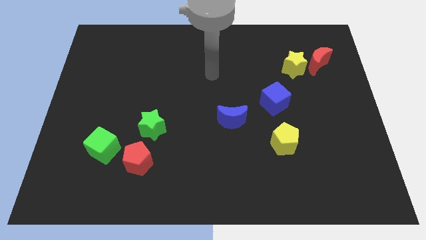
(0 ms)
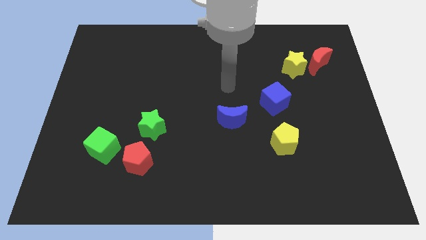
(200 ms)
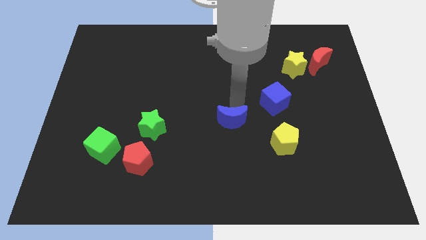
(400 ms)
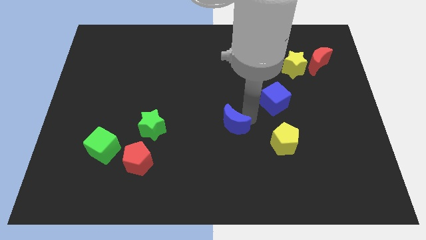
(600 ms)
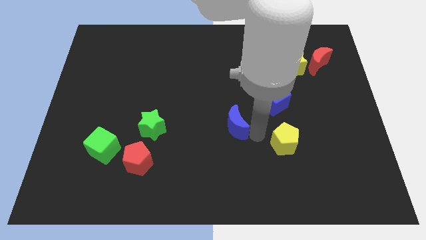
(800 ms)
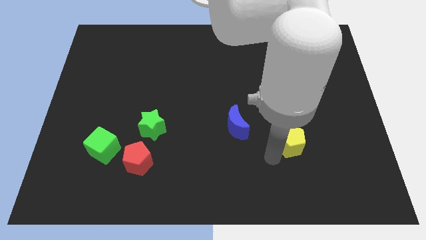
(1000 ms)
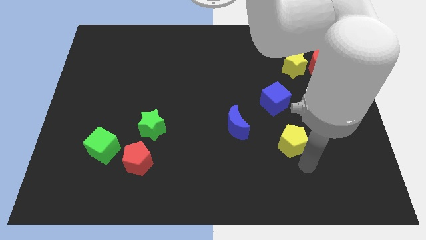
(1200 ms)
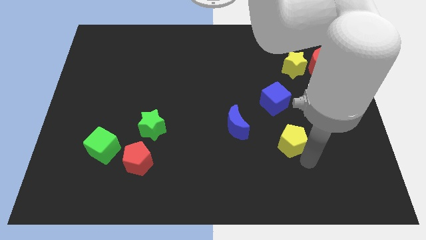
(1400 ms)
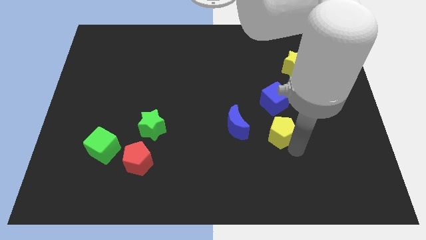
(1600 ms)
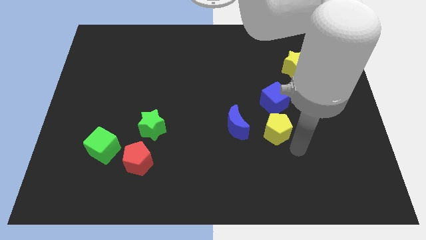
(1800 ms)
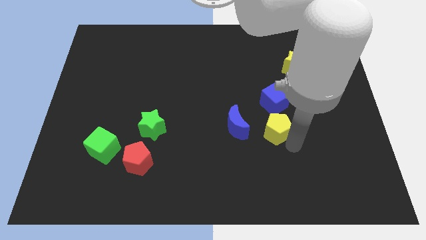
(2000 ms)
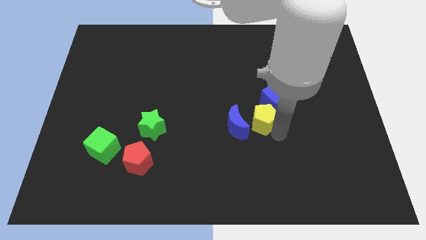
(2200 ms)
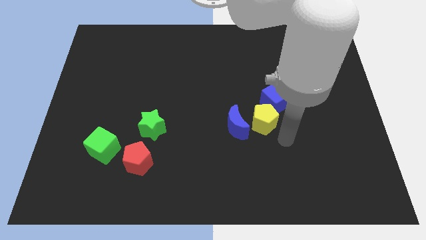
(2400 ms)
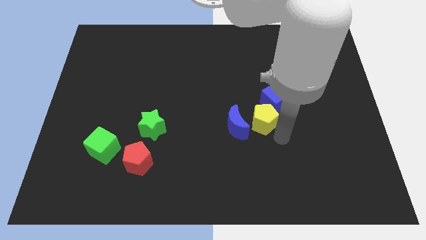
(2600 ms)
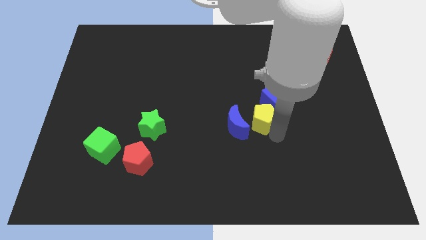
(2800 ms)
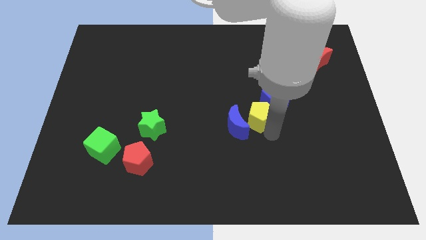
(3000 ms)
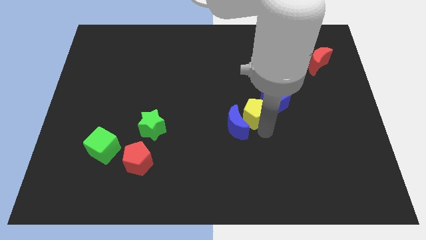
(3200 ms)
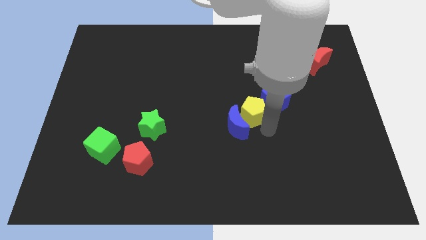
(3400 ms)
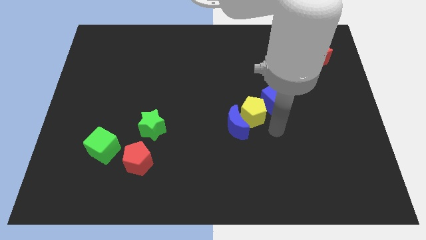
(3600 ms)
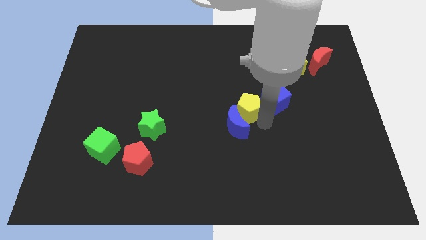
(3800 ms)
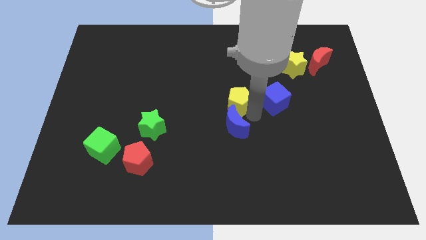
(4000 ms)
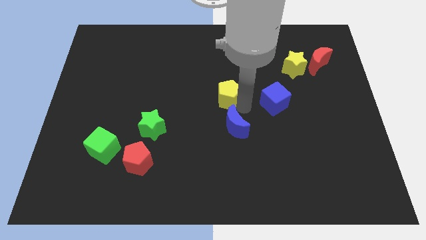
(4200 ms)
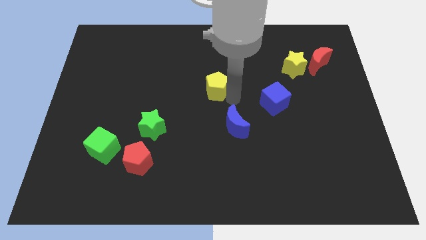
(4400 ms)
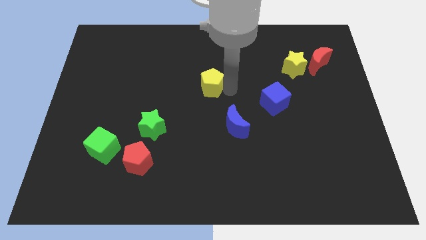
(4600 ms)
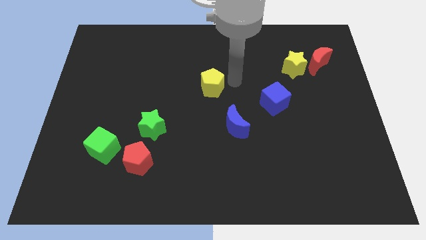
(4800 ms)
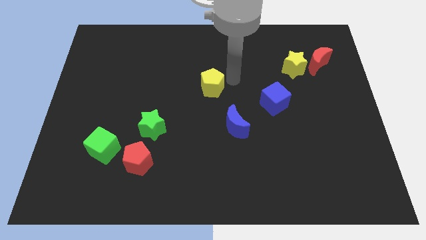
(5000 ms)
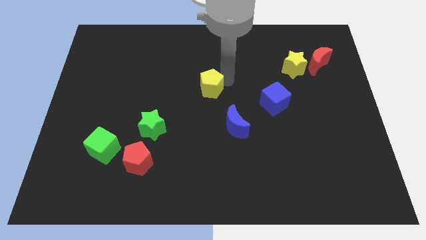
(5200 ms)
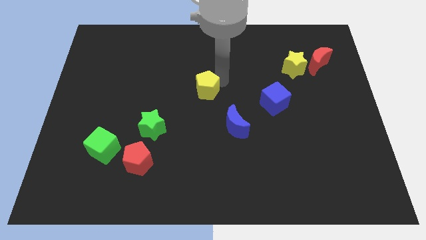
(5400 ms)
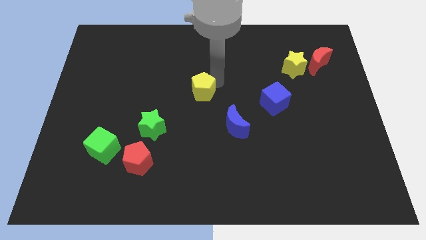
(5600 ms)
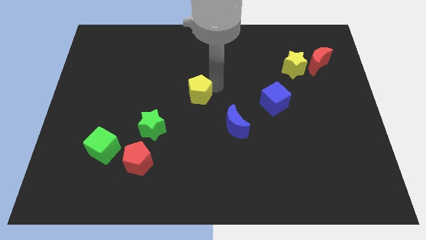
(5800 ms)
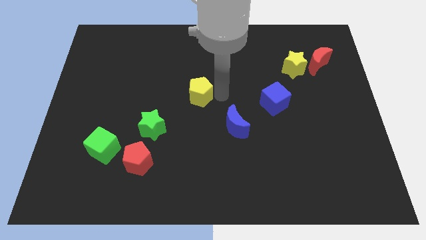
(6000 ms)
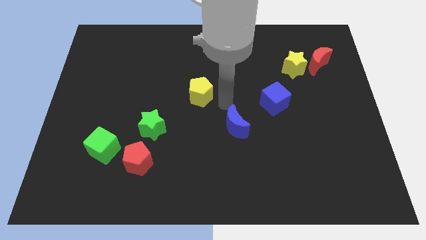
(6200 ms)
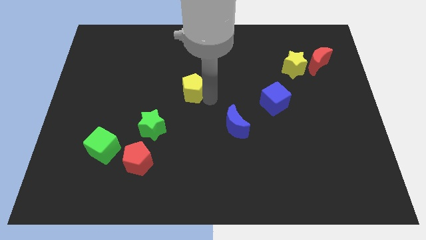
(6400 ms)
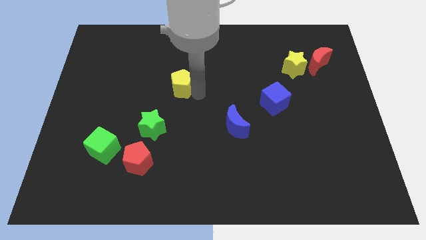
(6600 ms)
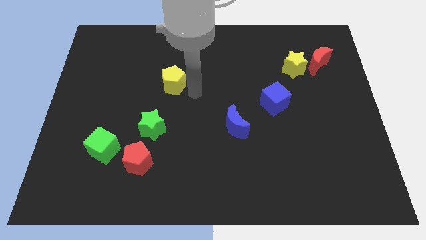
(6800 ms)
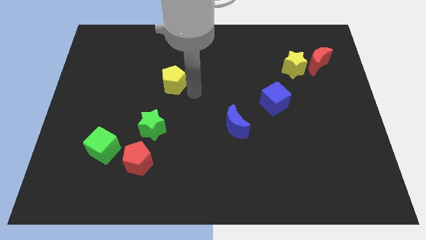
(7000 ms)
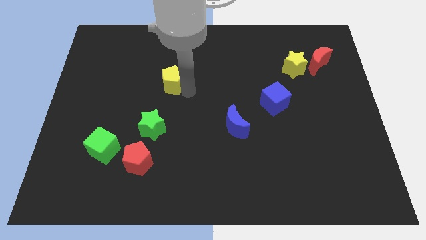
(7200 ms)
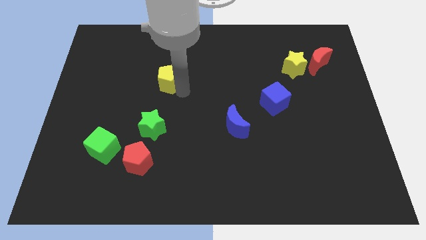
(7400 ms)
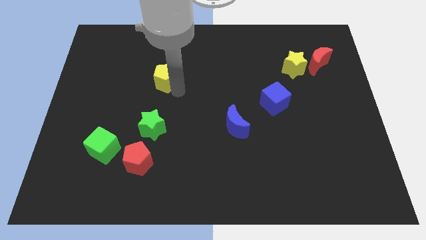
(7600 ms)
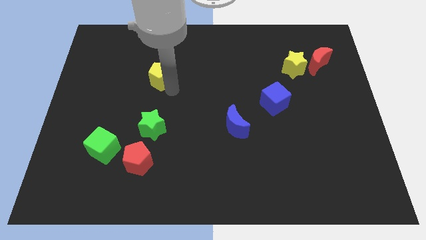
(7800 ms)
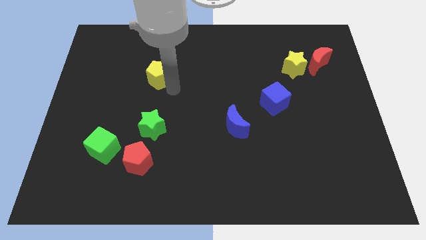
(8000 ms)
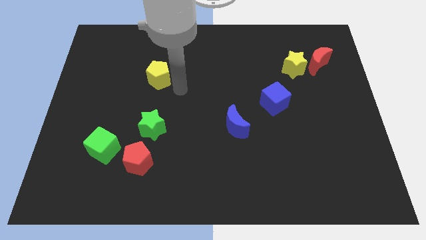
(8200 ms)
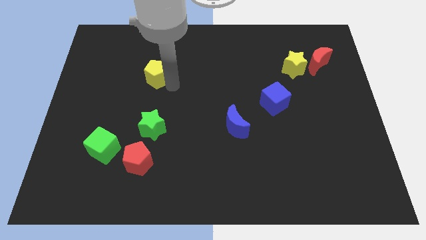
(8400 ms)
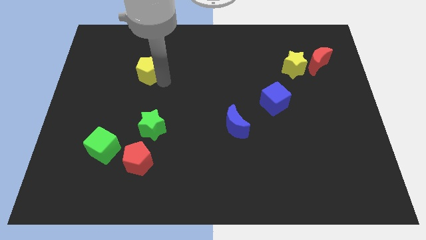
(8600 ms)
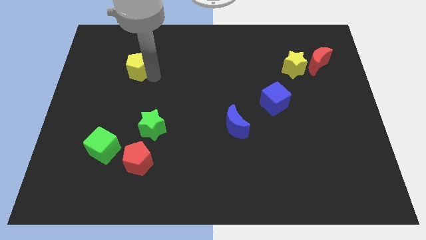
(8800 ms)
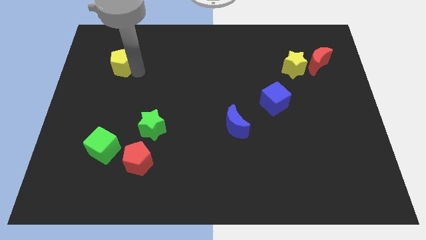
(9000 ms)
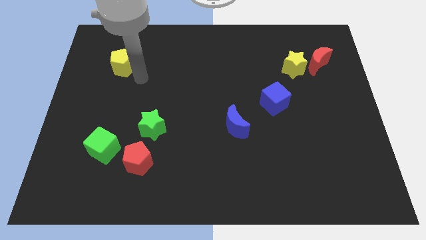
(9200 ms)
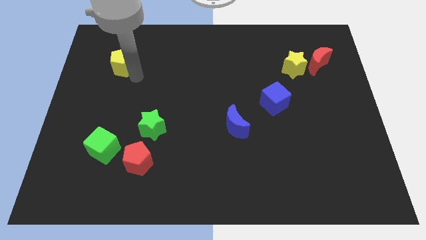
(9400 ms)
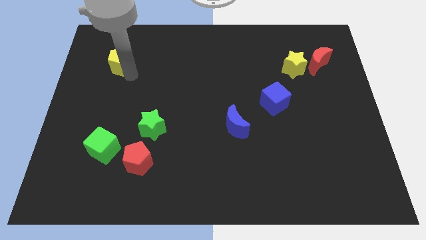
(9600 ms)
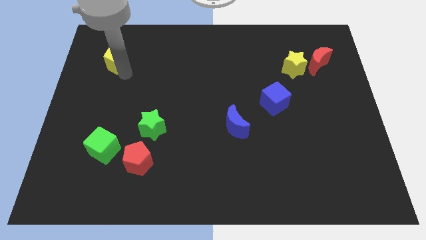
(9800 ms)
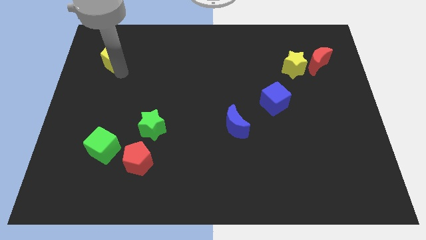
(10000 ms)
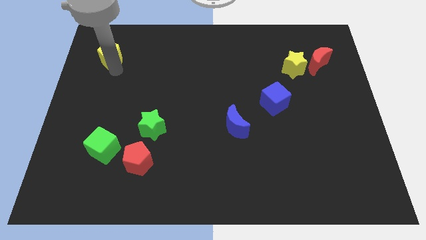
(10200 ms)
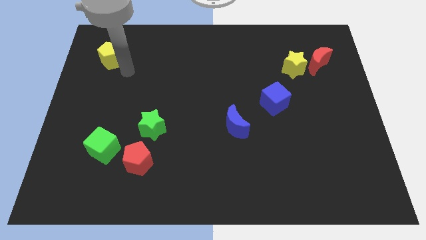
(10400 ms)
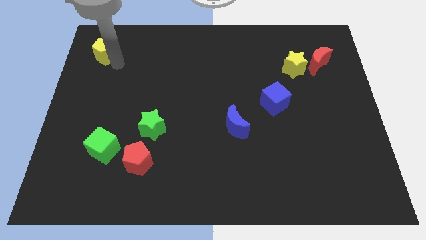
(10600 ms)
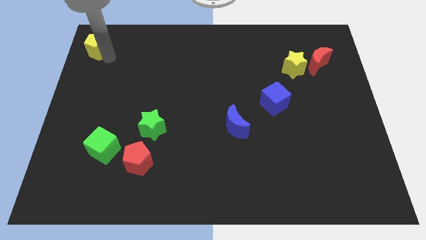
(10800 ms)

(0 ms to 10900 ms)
slide the yellow pentagon to the top left corner
